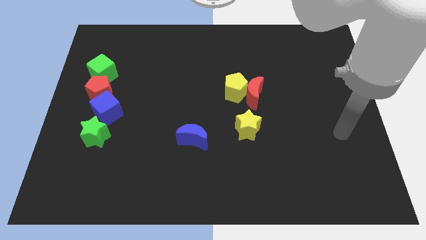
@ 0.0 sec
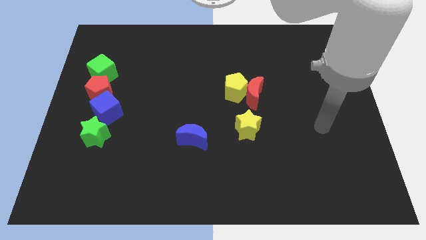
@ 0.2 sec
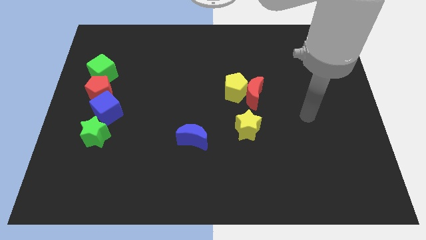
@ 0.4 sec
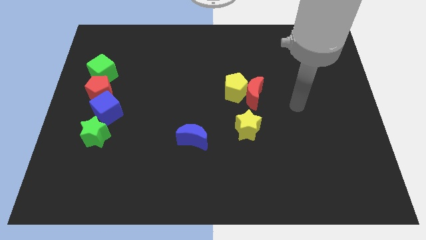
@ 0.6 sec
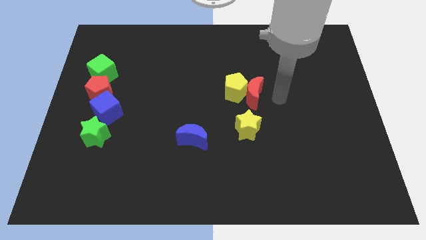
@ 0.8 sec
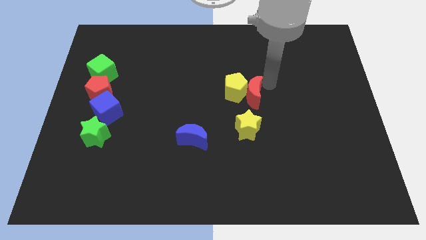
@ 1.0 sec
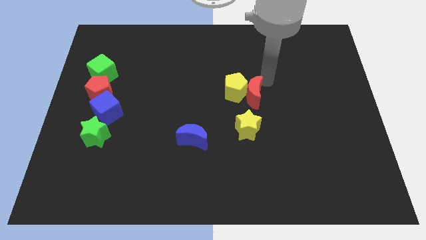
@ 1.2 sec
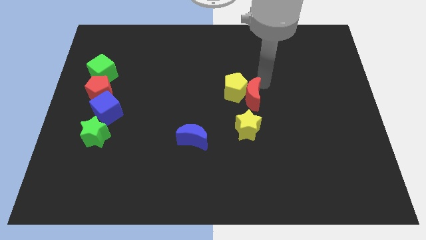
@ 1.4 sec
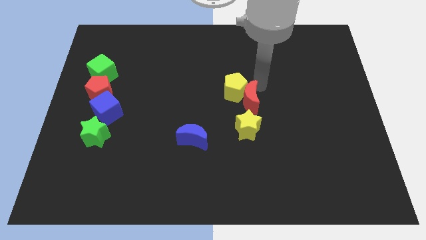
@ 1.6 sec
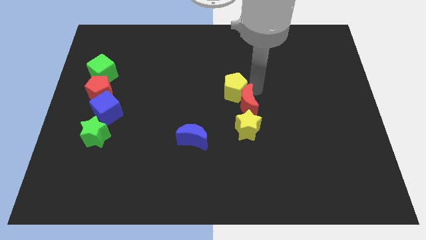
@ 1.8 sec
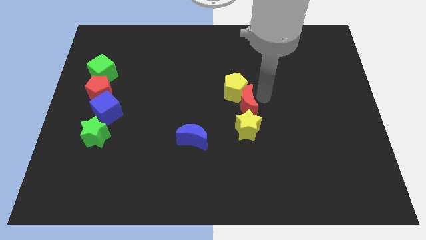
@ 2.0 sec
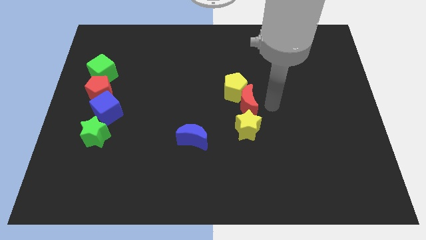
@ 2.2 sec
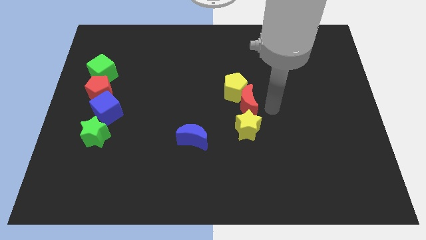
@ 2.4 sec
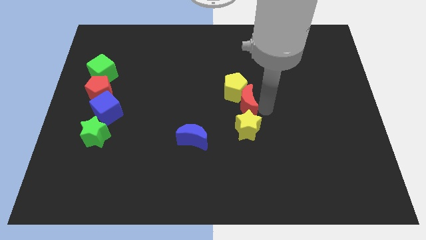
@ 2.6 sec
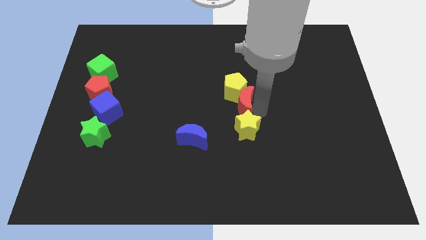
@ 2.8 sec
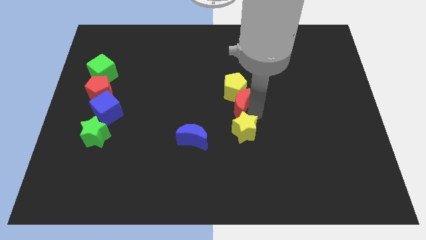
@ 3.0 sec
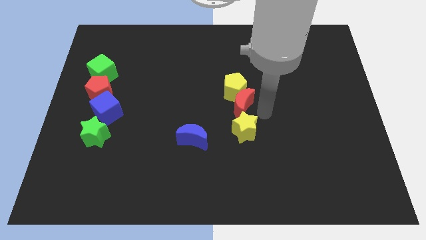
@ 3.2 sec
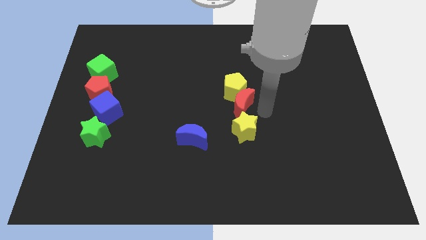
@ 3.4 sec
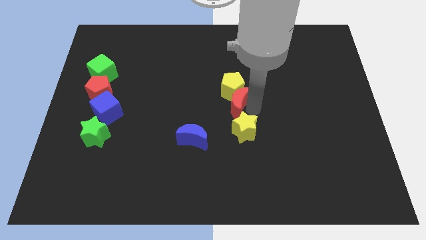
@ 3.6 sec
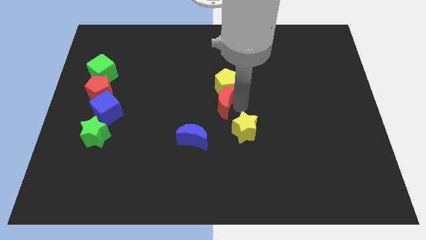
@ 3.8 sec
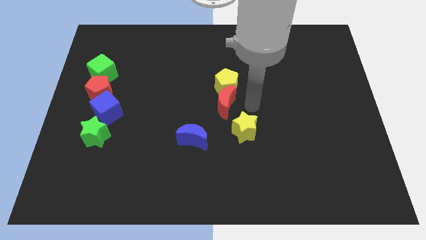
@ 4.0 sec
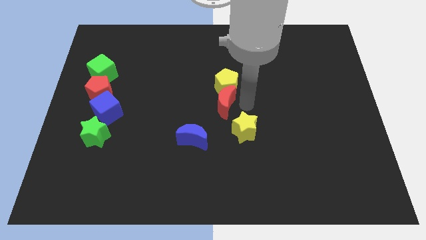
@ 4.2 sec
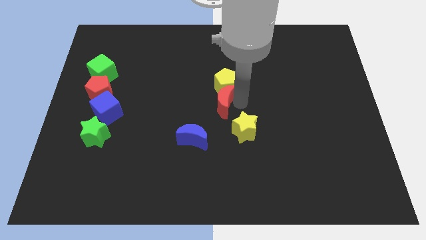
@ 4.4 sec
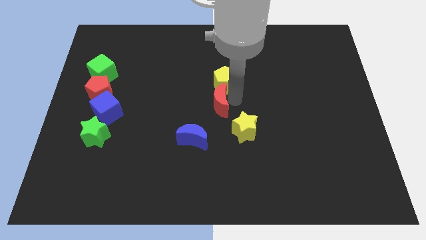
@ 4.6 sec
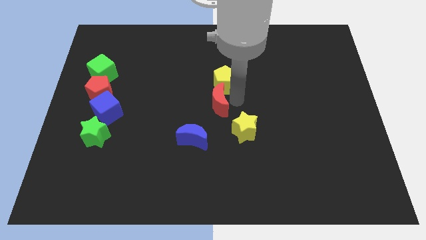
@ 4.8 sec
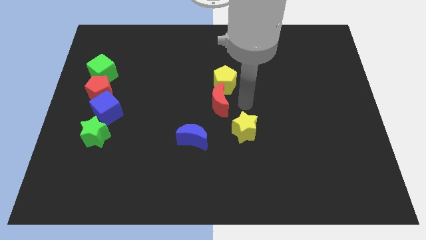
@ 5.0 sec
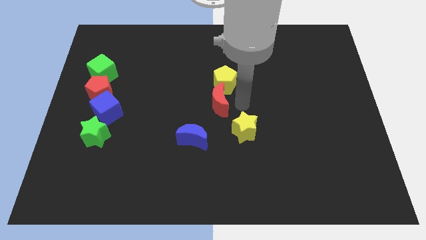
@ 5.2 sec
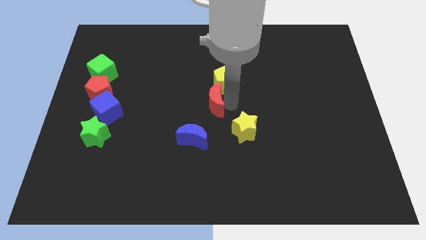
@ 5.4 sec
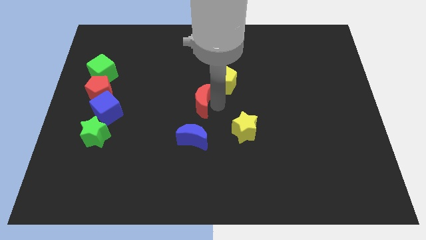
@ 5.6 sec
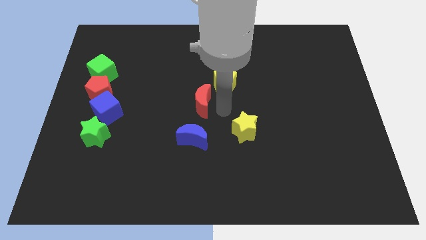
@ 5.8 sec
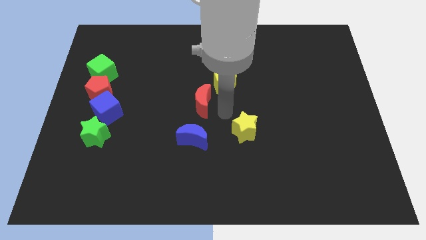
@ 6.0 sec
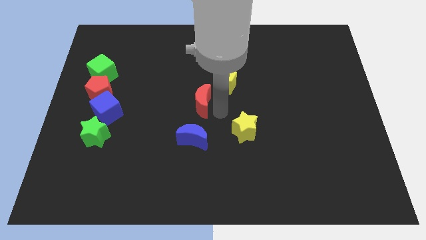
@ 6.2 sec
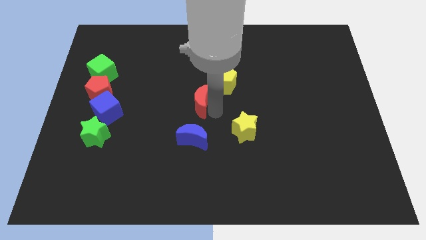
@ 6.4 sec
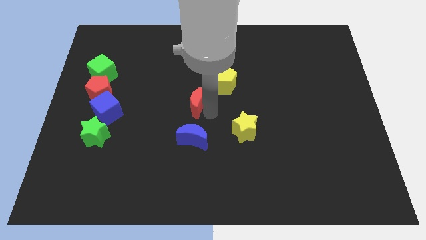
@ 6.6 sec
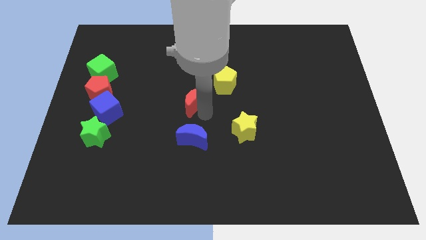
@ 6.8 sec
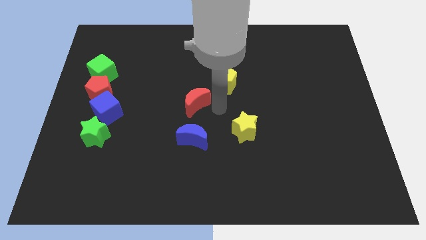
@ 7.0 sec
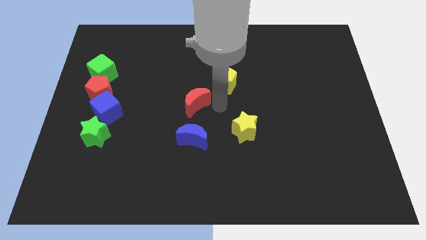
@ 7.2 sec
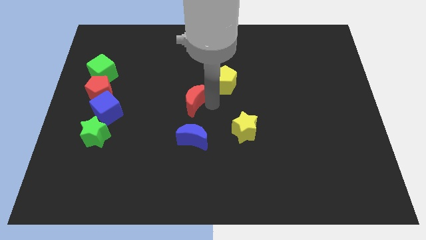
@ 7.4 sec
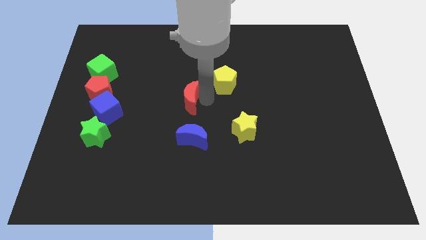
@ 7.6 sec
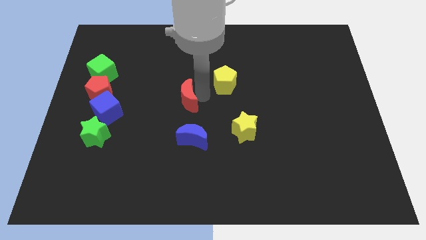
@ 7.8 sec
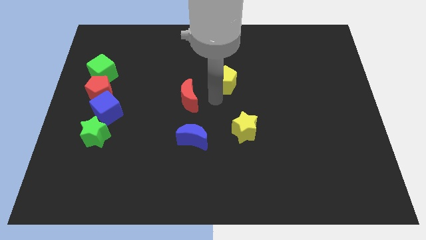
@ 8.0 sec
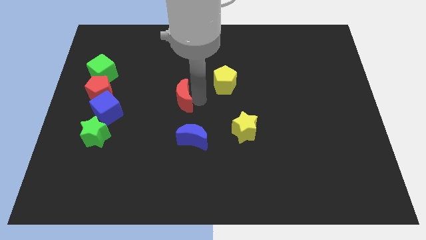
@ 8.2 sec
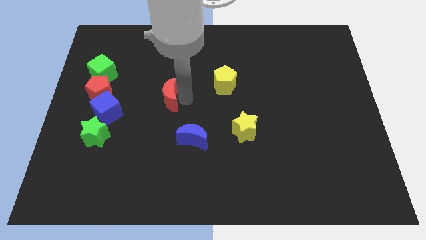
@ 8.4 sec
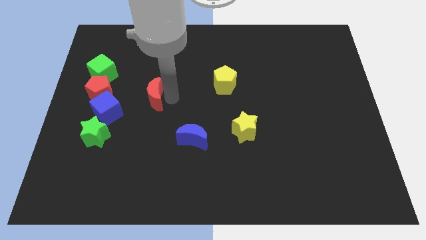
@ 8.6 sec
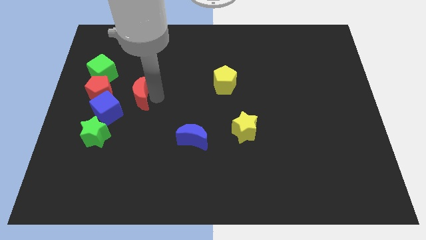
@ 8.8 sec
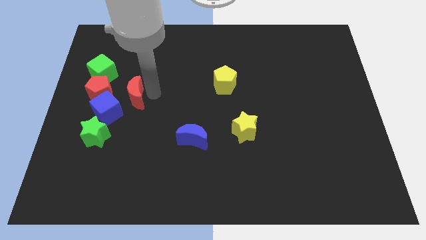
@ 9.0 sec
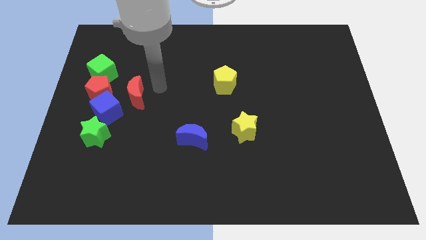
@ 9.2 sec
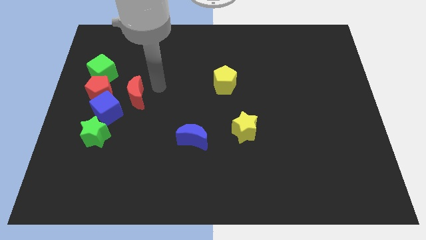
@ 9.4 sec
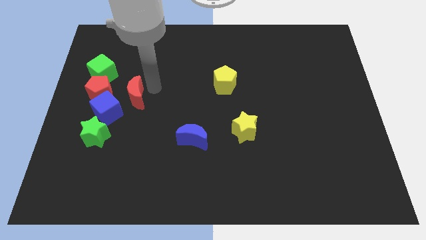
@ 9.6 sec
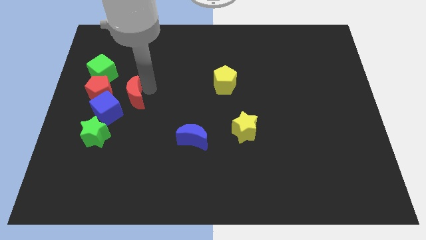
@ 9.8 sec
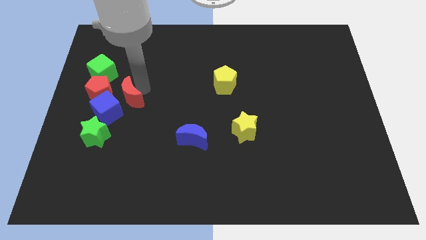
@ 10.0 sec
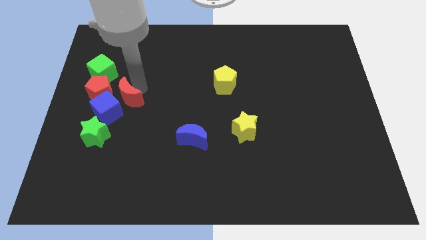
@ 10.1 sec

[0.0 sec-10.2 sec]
push the red moon next to the blue cube
